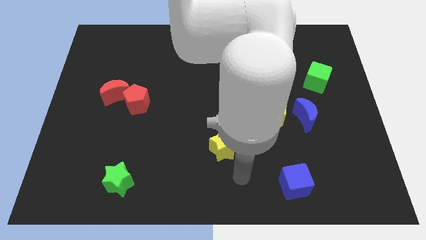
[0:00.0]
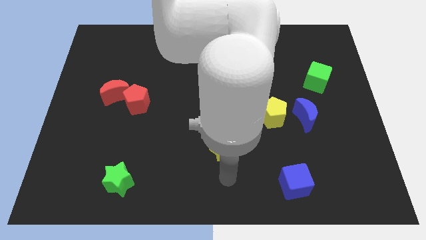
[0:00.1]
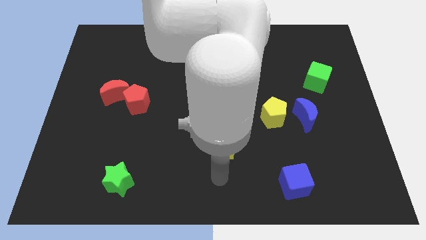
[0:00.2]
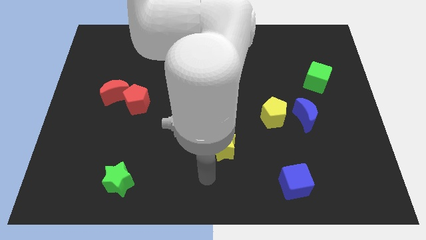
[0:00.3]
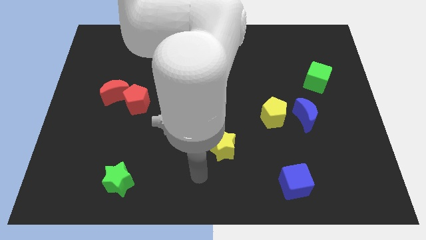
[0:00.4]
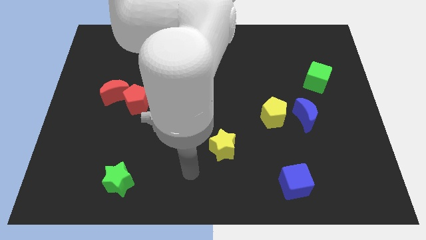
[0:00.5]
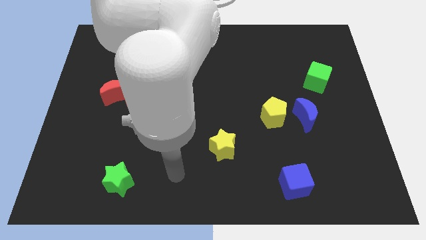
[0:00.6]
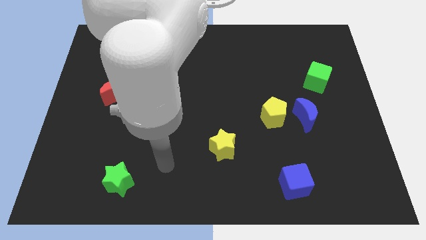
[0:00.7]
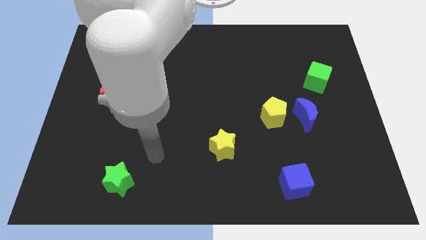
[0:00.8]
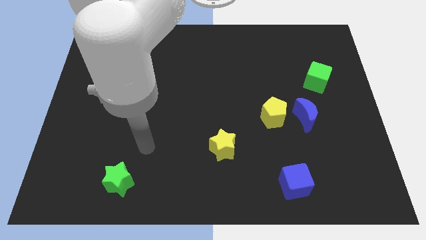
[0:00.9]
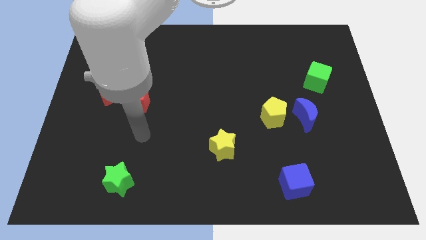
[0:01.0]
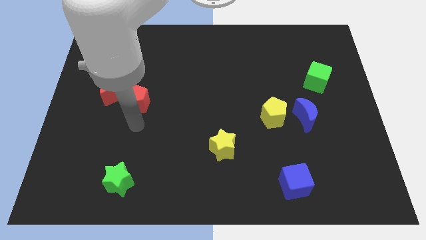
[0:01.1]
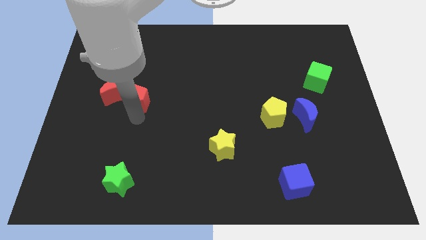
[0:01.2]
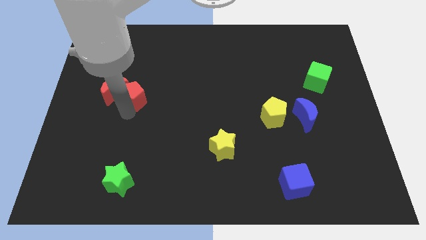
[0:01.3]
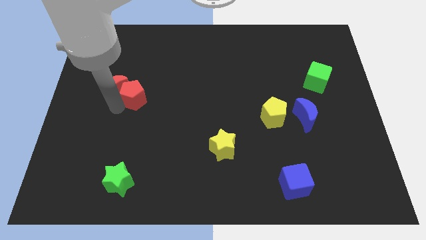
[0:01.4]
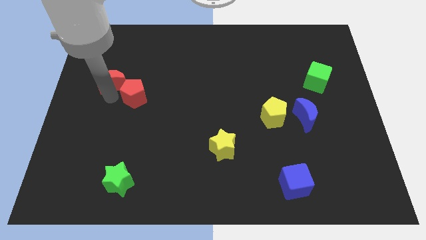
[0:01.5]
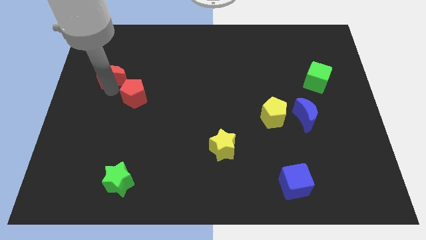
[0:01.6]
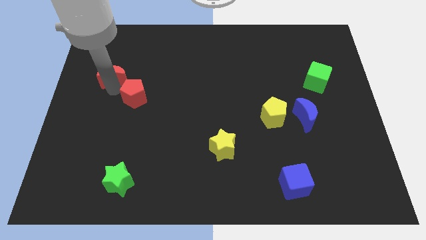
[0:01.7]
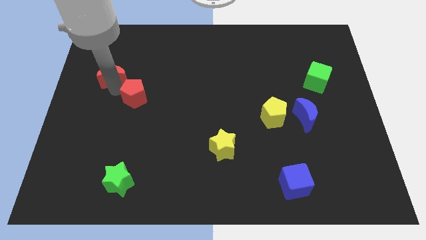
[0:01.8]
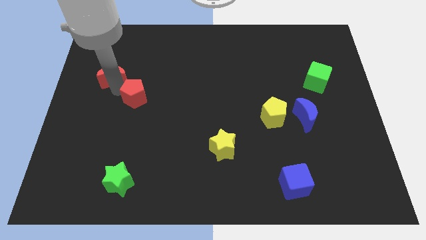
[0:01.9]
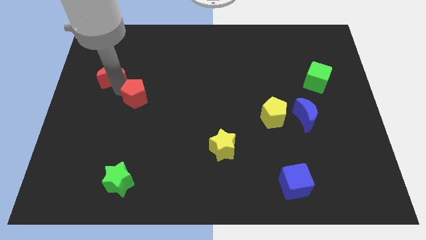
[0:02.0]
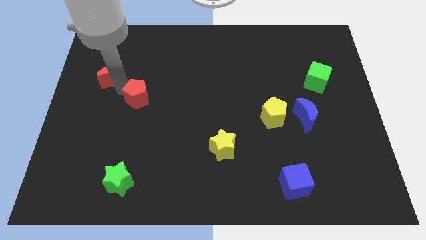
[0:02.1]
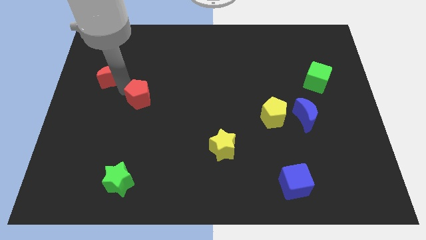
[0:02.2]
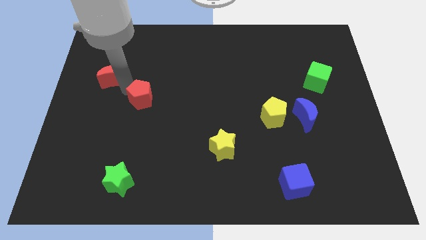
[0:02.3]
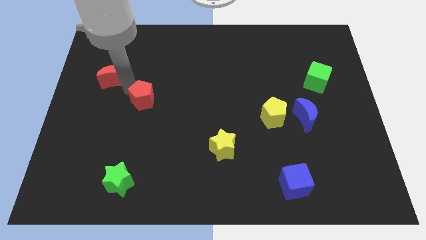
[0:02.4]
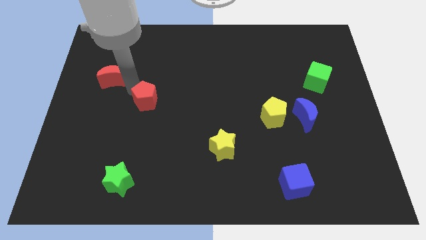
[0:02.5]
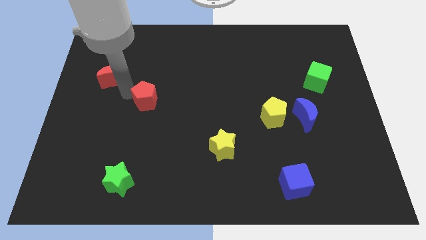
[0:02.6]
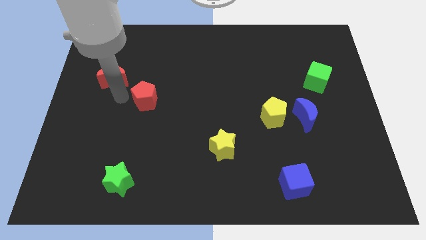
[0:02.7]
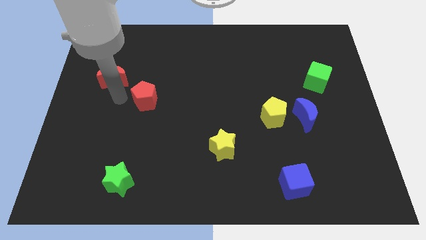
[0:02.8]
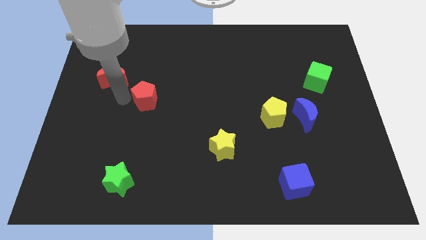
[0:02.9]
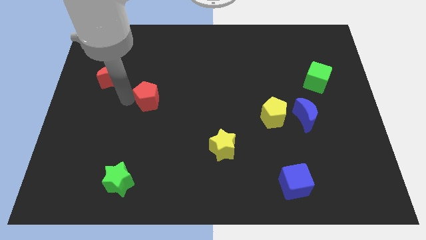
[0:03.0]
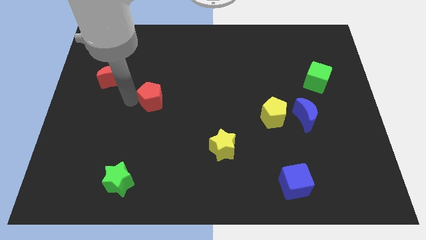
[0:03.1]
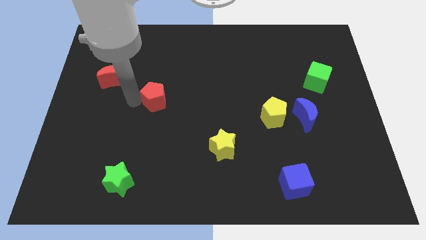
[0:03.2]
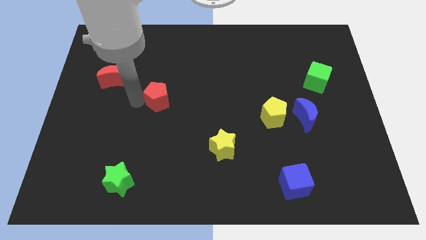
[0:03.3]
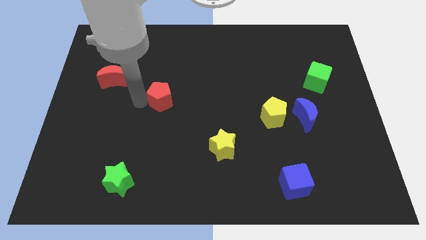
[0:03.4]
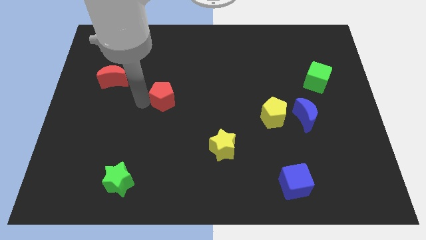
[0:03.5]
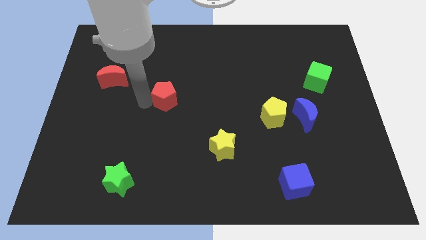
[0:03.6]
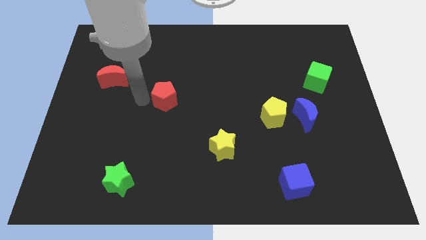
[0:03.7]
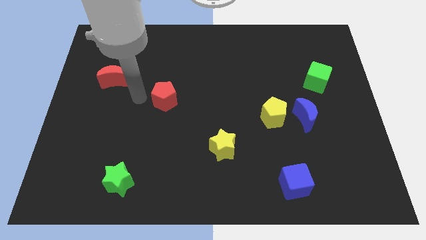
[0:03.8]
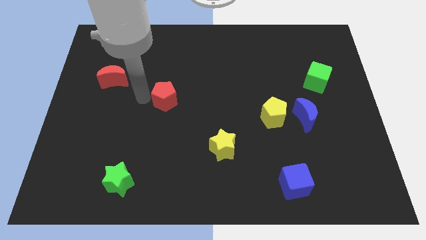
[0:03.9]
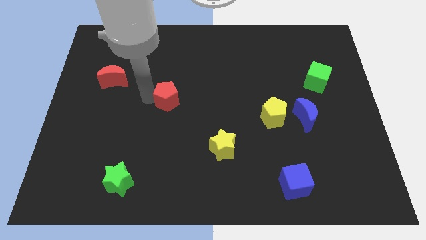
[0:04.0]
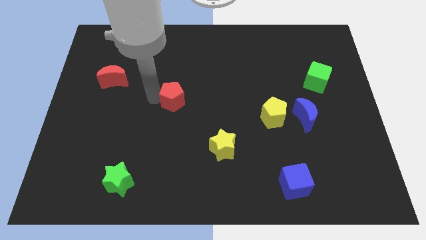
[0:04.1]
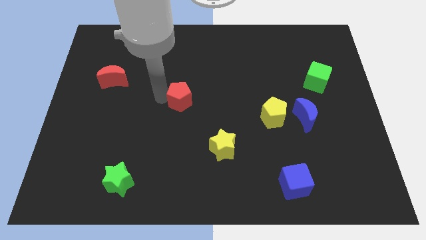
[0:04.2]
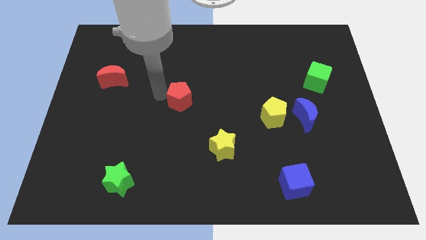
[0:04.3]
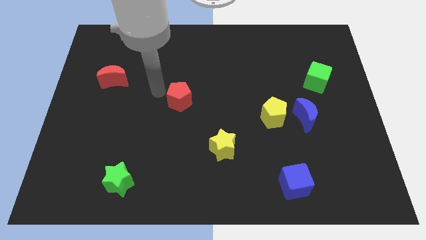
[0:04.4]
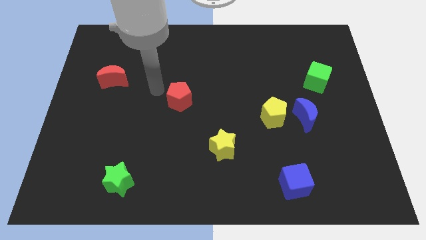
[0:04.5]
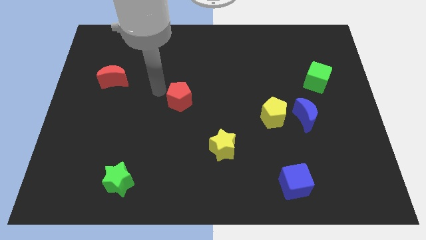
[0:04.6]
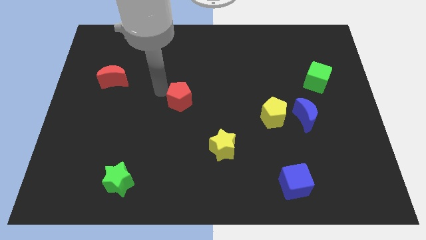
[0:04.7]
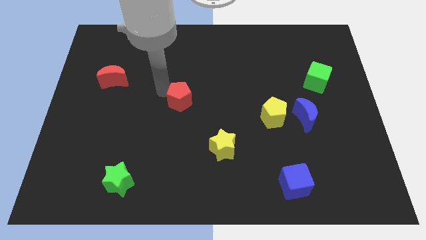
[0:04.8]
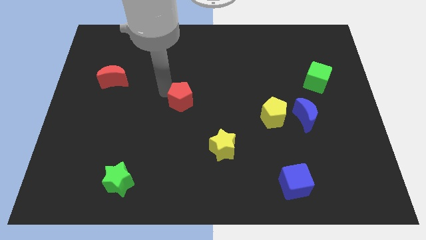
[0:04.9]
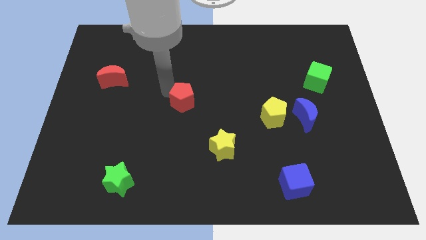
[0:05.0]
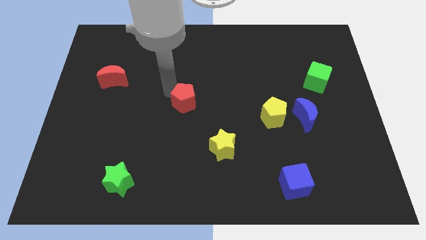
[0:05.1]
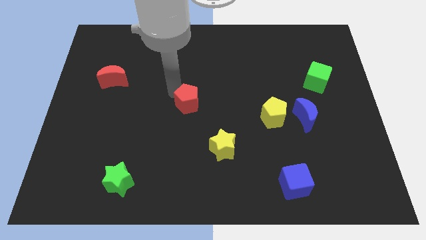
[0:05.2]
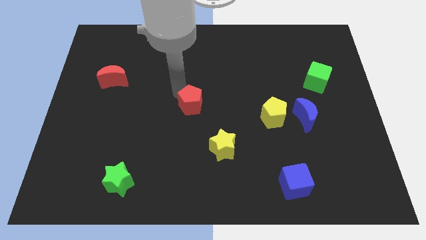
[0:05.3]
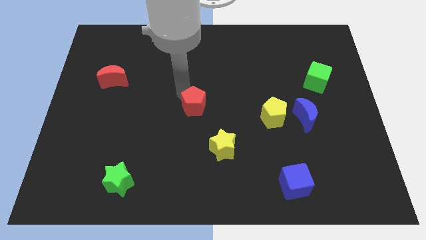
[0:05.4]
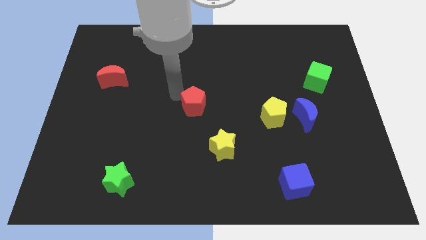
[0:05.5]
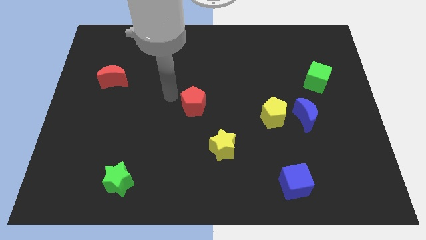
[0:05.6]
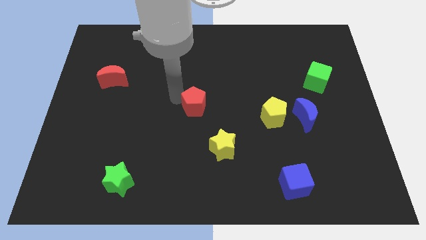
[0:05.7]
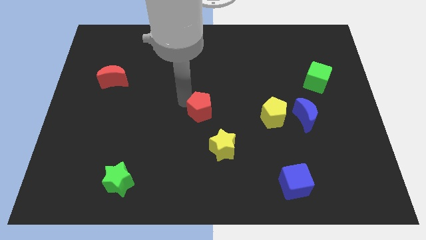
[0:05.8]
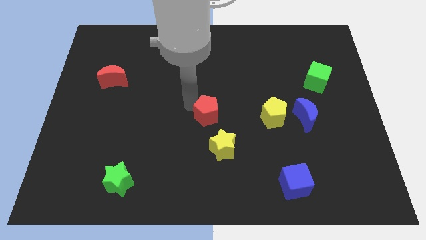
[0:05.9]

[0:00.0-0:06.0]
slide the red pentagon to the left of the yellow pentagon

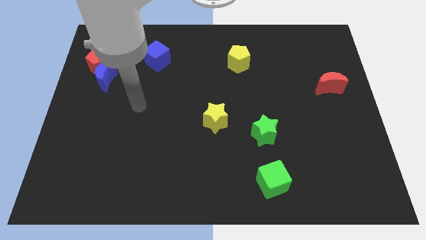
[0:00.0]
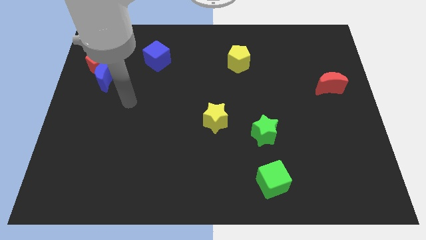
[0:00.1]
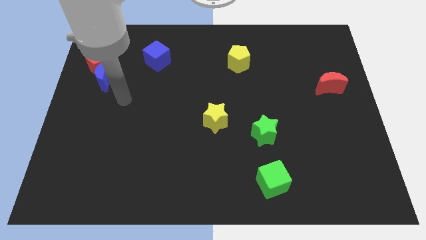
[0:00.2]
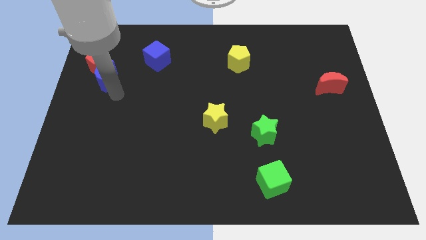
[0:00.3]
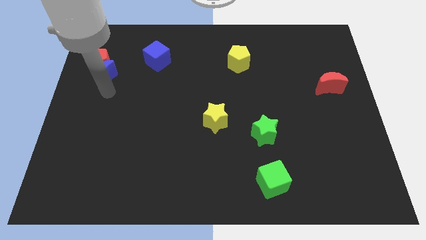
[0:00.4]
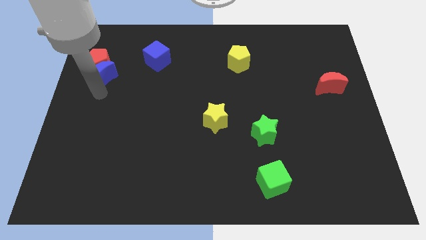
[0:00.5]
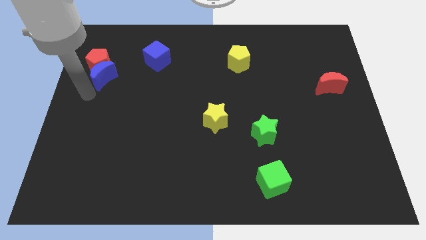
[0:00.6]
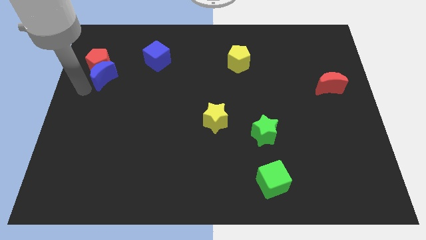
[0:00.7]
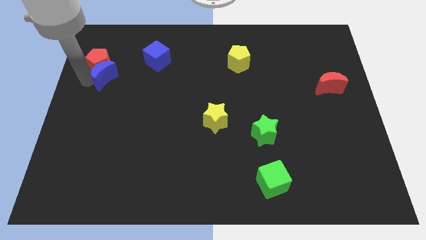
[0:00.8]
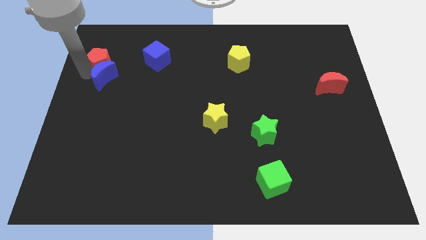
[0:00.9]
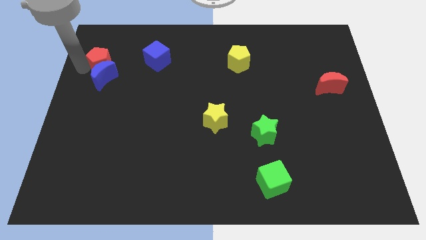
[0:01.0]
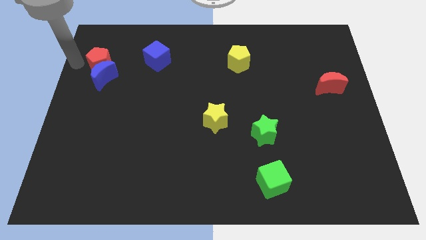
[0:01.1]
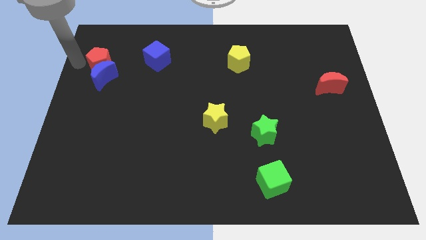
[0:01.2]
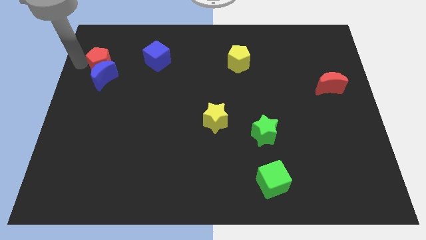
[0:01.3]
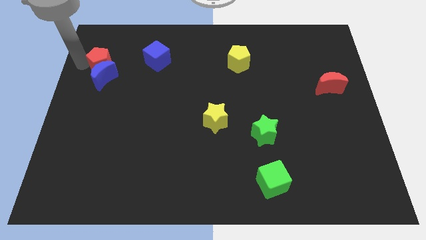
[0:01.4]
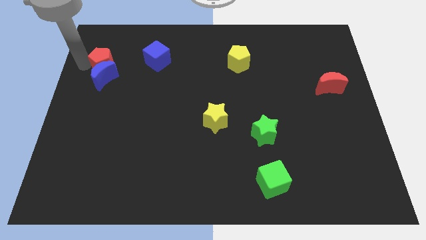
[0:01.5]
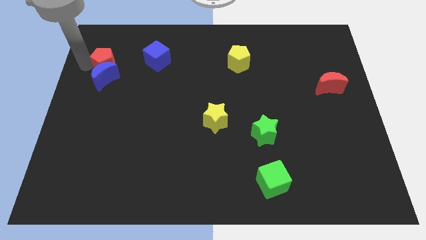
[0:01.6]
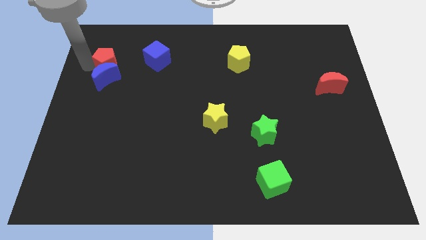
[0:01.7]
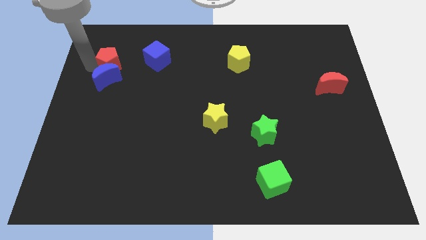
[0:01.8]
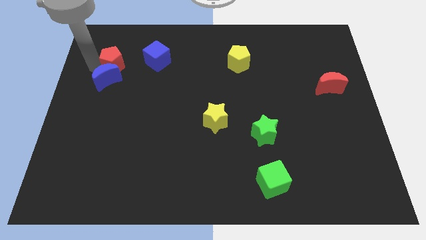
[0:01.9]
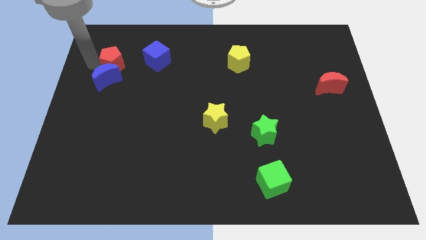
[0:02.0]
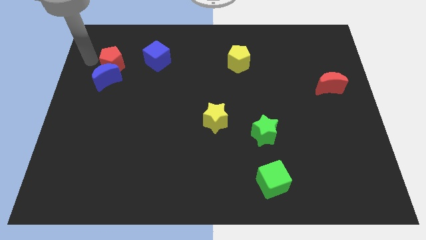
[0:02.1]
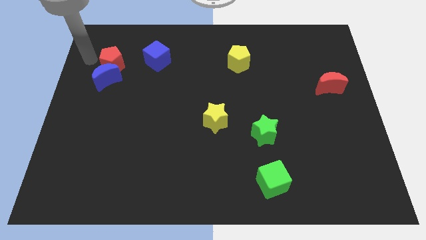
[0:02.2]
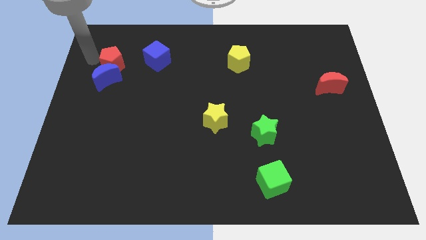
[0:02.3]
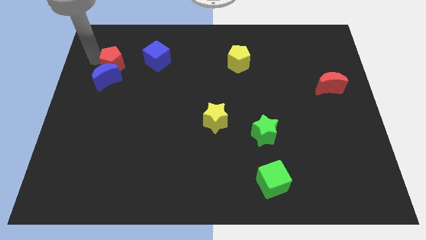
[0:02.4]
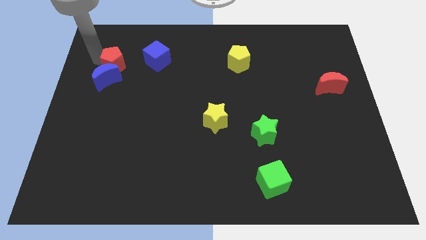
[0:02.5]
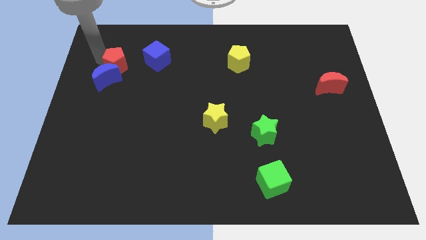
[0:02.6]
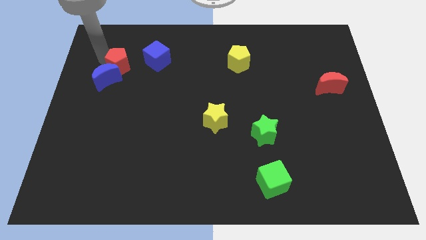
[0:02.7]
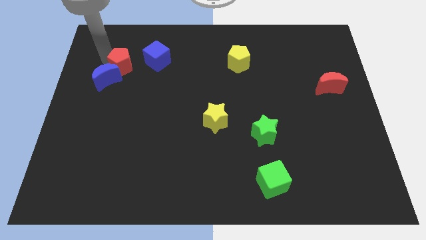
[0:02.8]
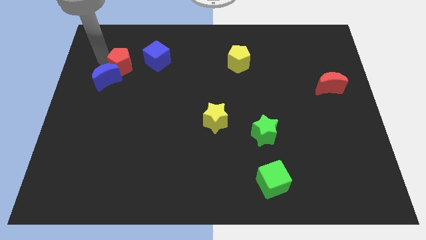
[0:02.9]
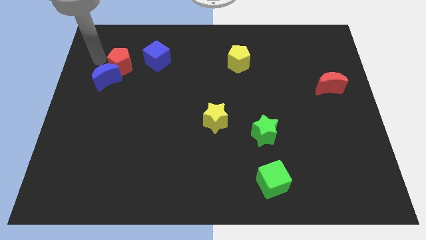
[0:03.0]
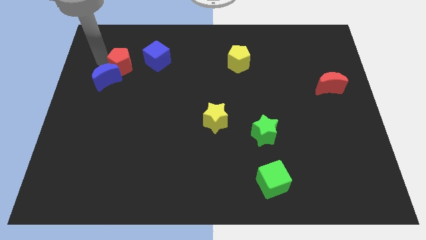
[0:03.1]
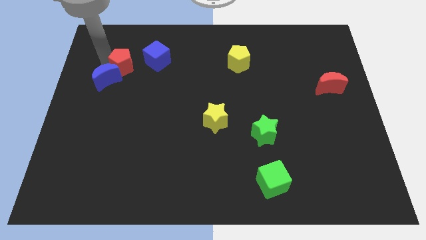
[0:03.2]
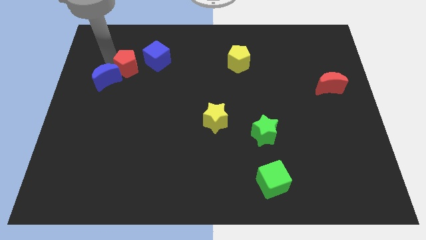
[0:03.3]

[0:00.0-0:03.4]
move the red pentagon just right of the blue moon
